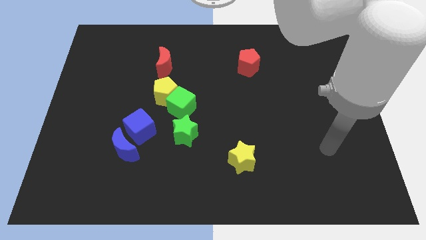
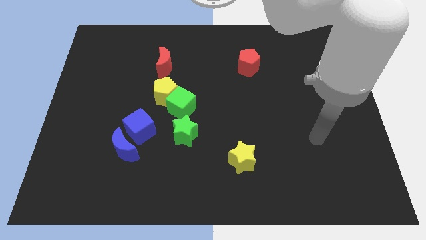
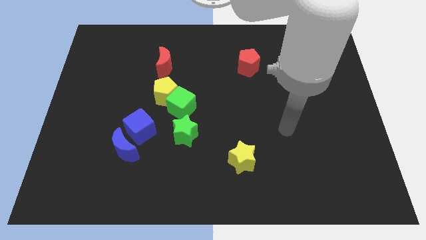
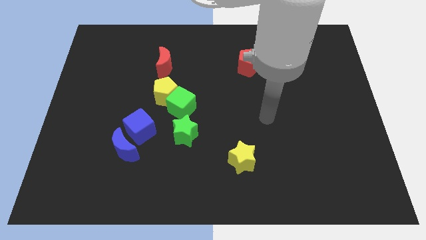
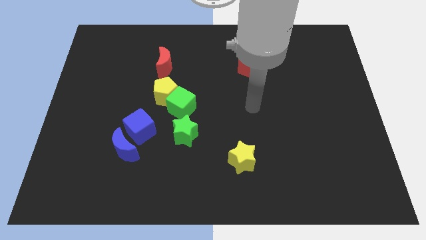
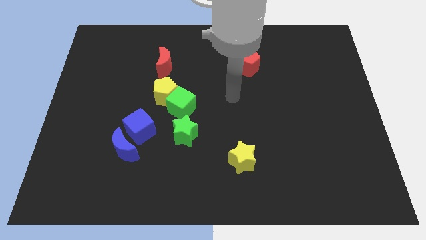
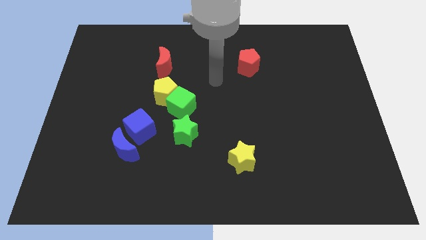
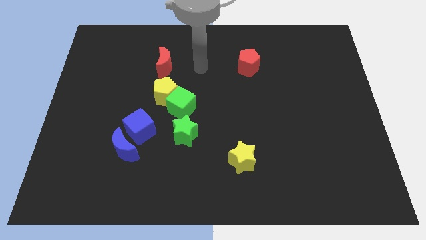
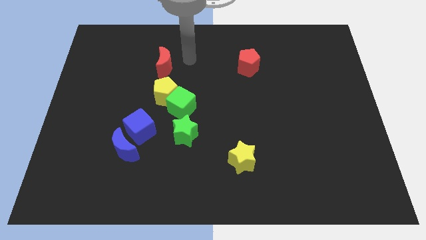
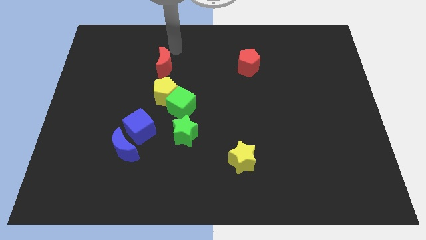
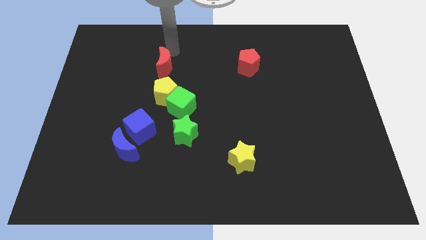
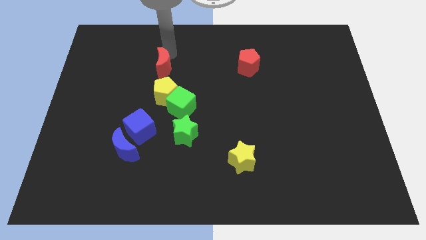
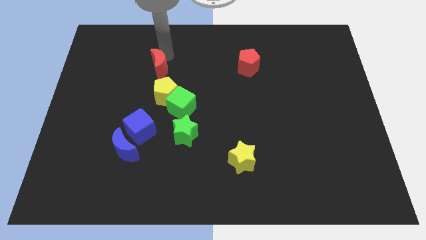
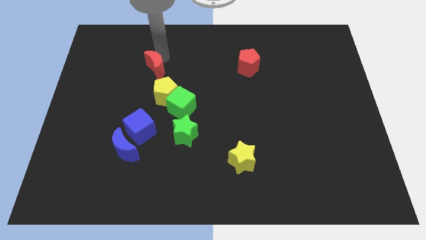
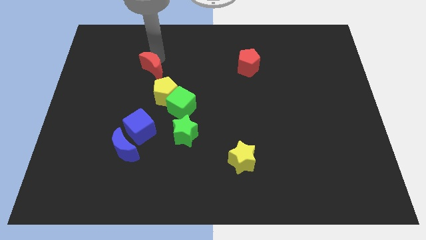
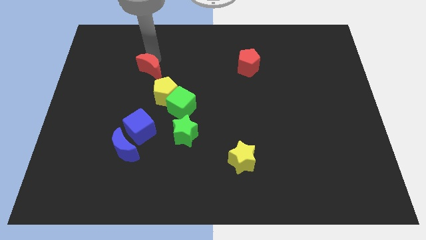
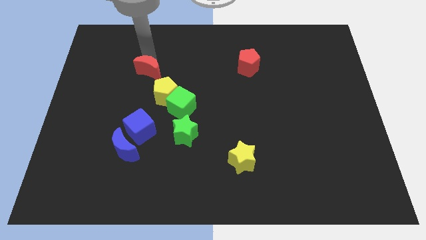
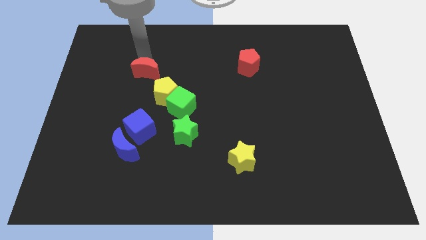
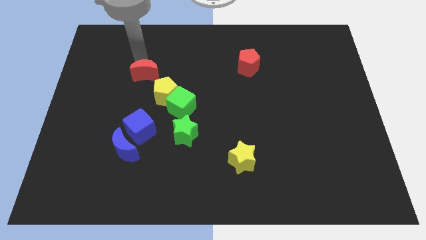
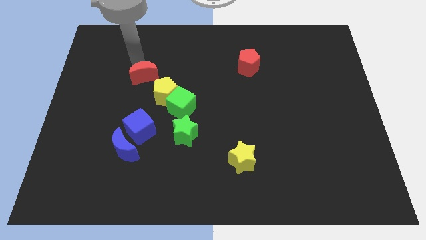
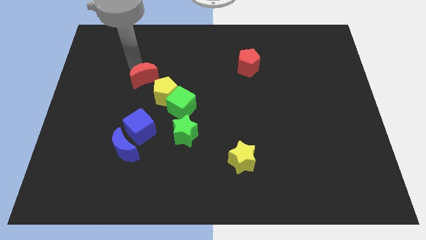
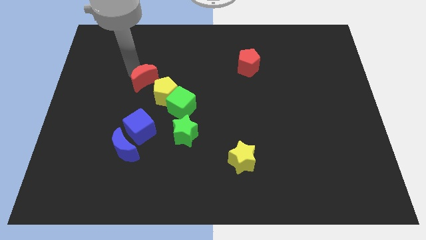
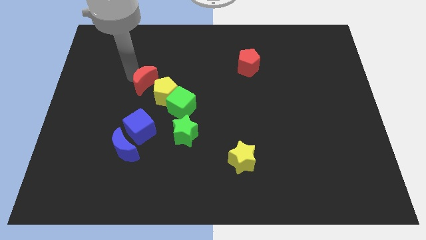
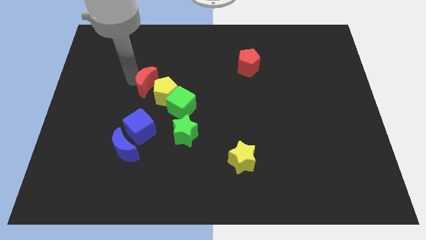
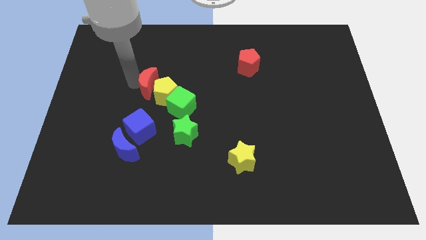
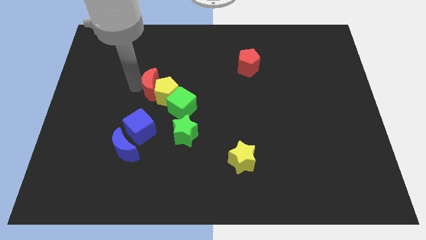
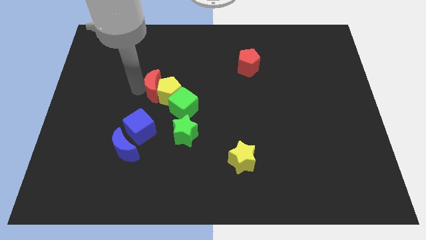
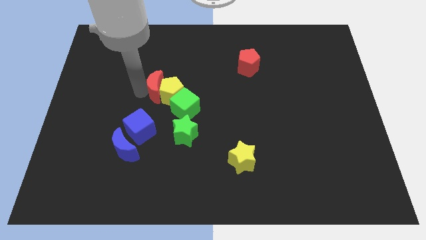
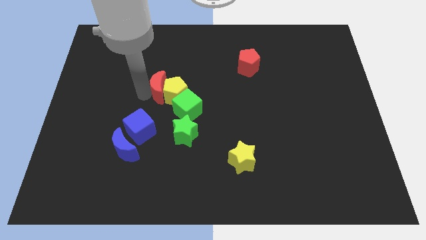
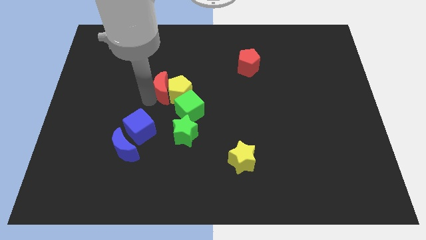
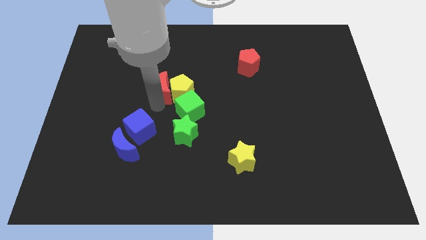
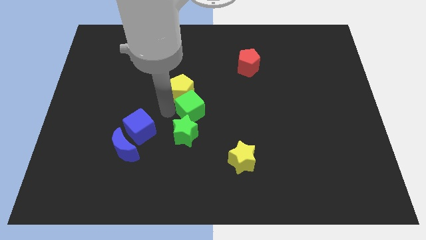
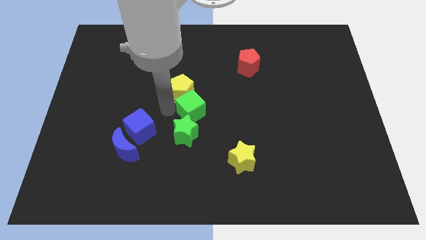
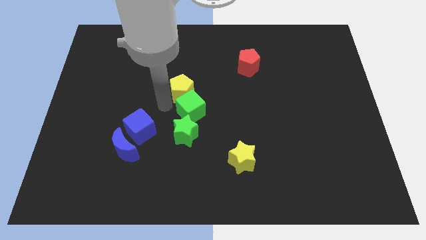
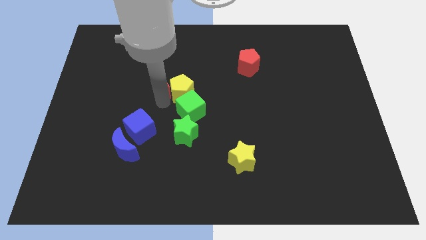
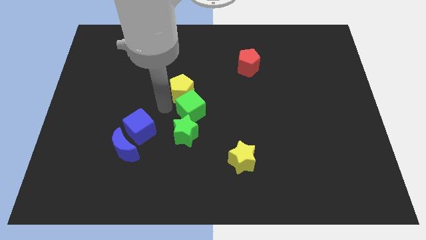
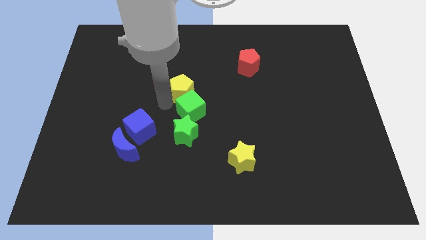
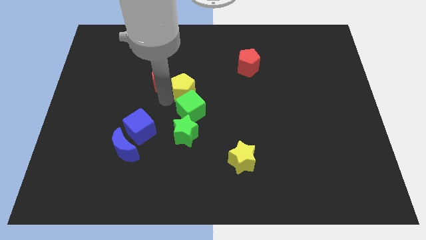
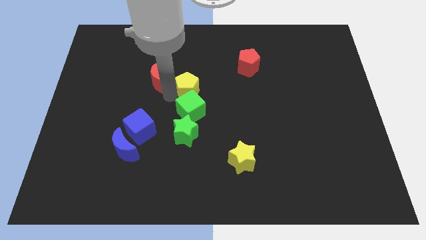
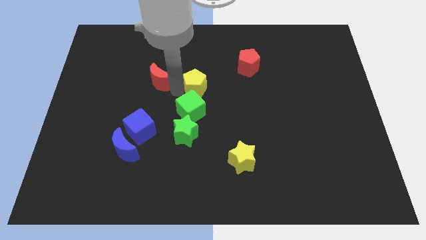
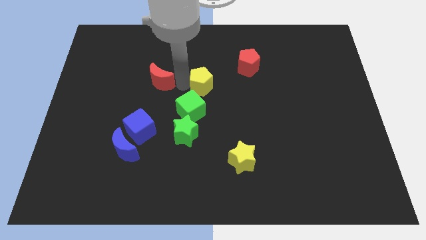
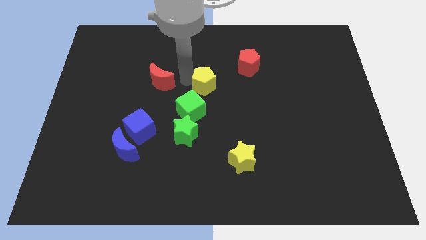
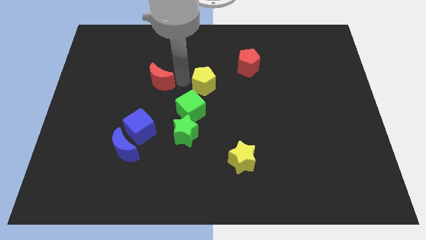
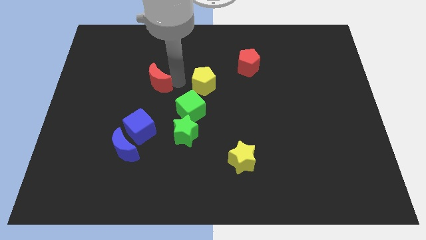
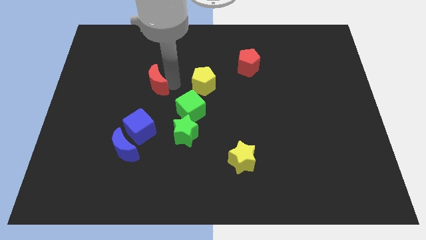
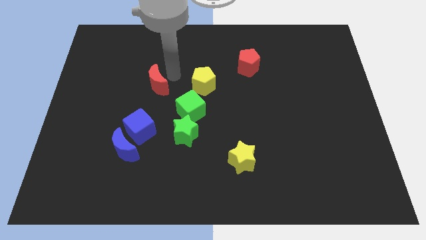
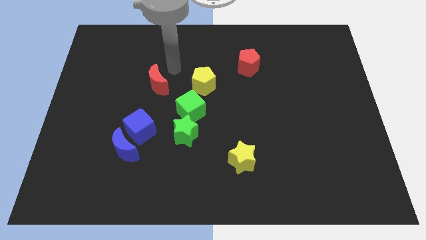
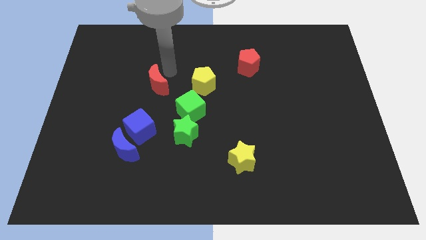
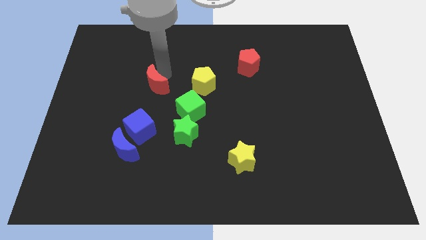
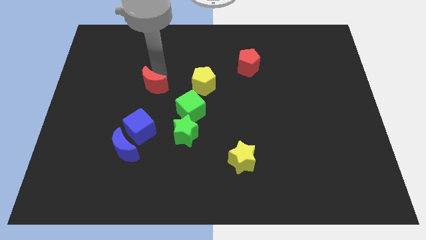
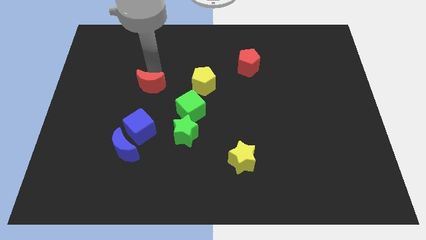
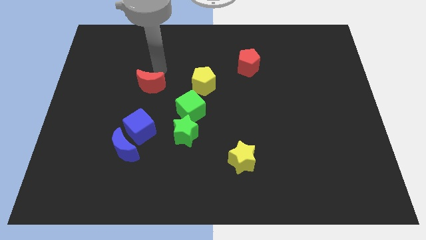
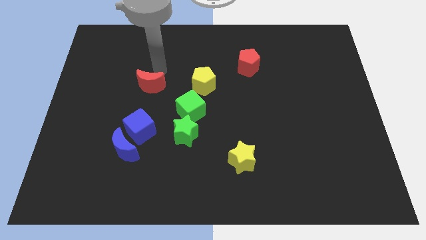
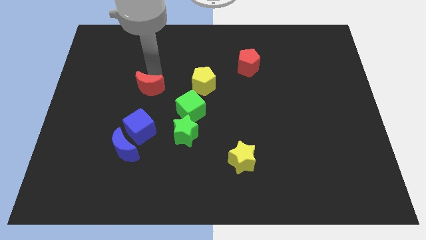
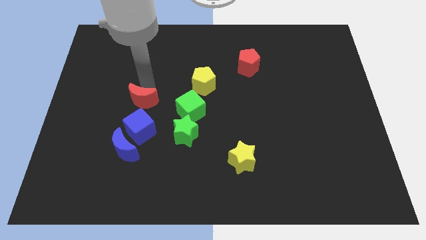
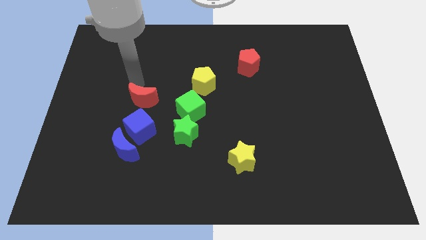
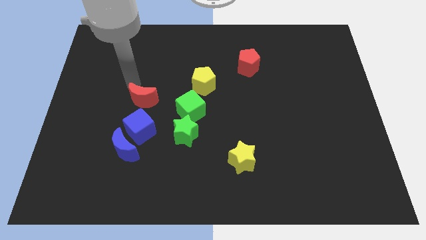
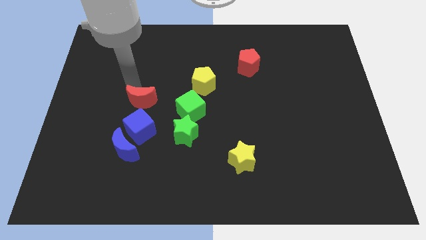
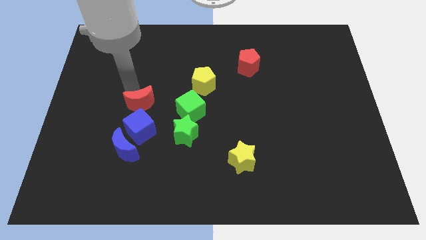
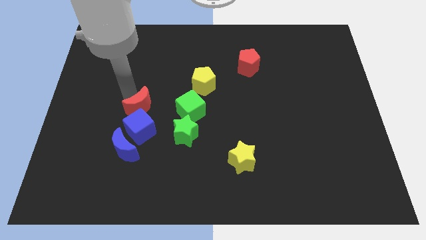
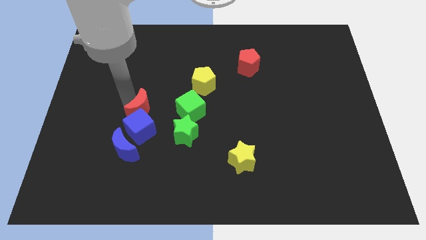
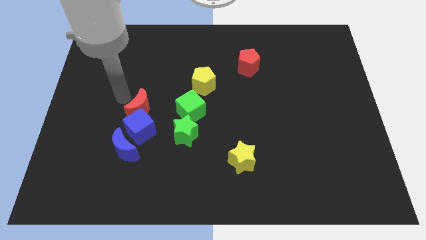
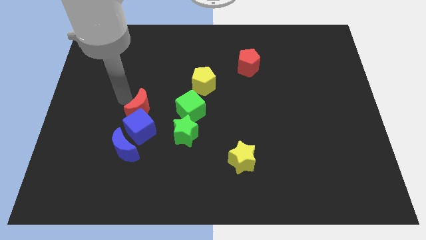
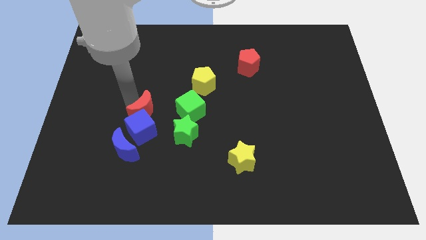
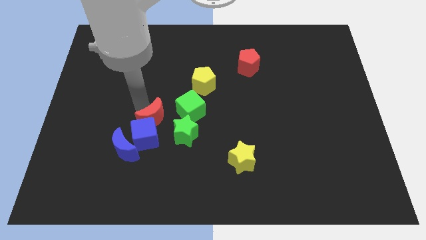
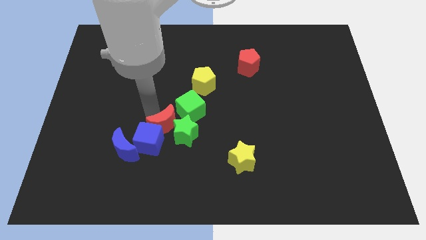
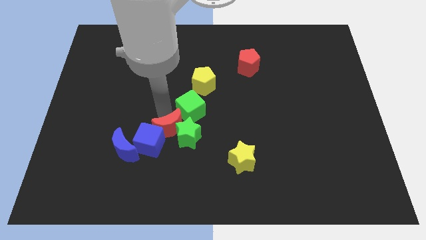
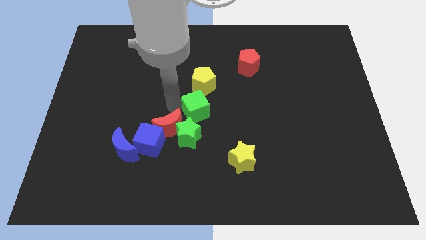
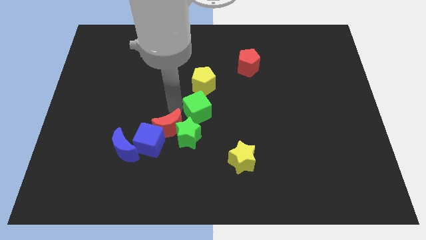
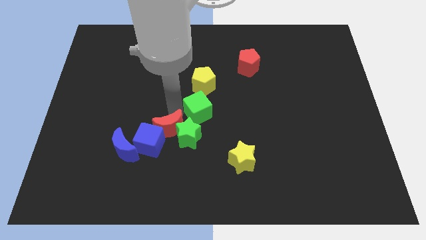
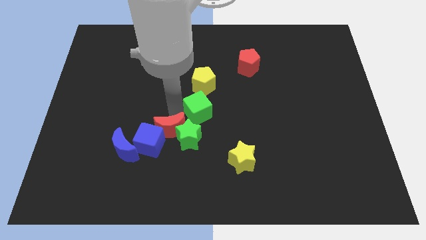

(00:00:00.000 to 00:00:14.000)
slide the red moon down

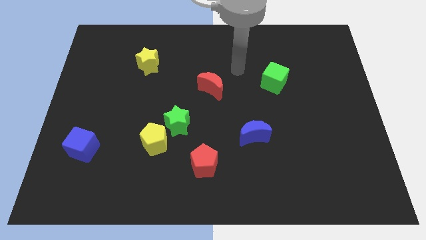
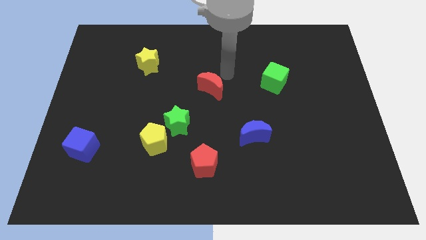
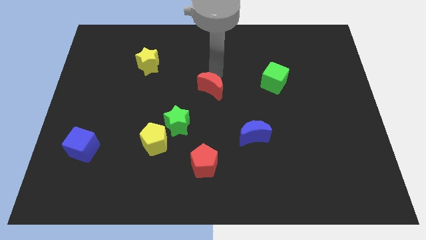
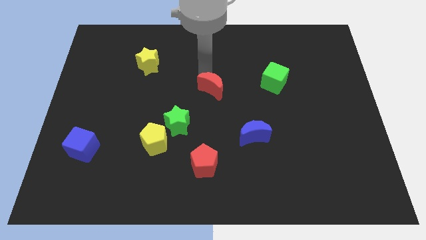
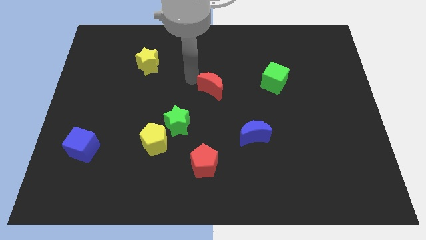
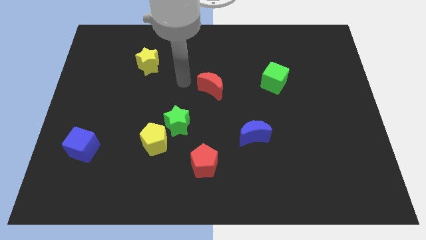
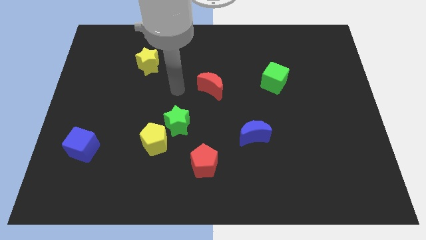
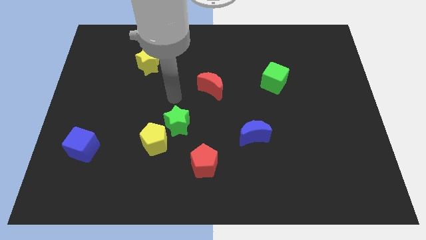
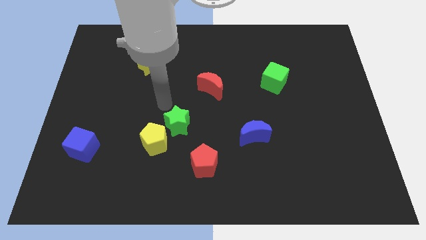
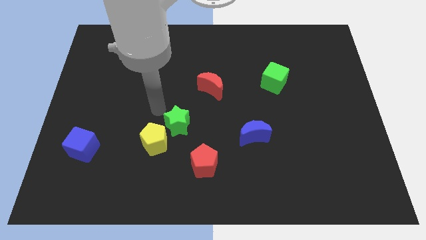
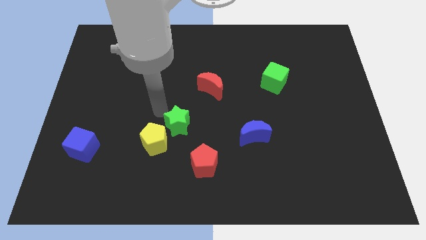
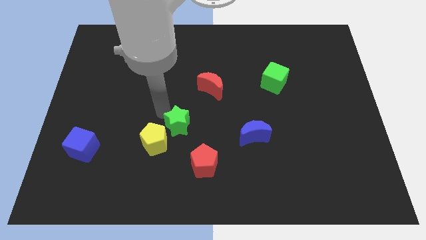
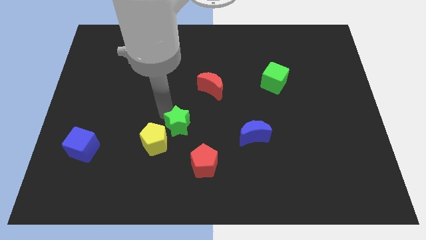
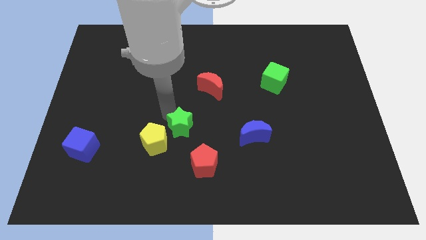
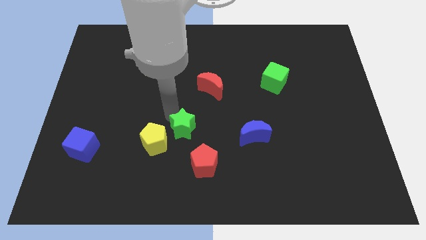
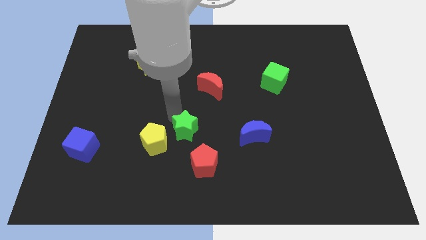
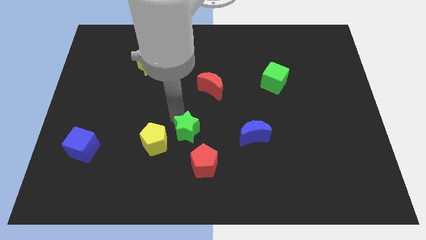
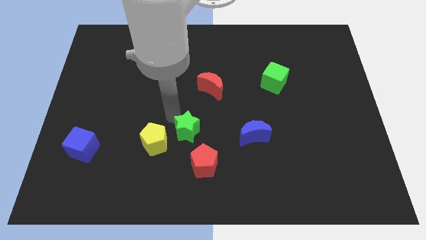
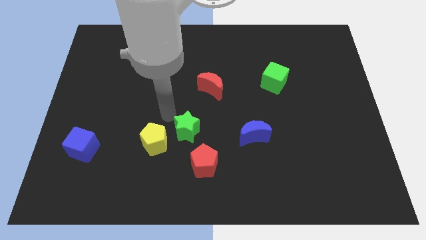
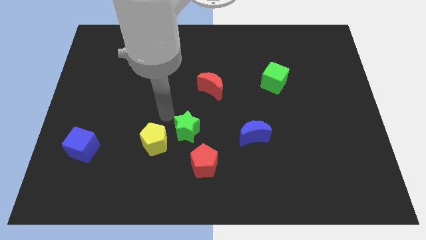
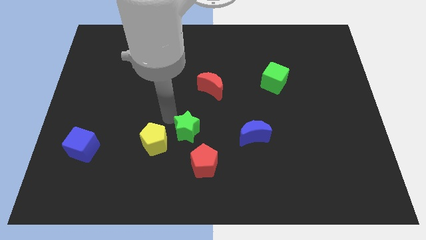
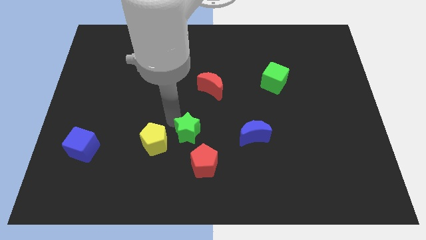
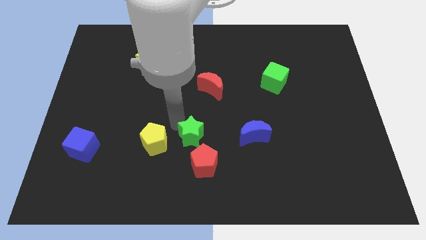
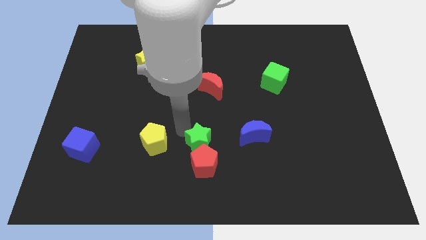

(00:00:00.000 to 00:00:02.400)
slightly slide the green star down and to the right
